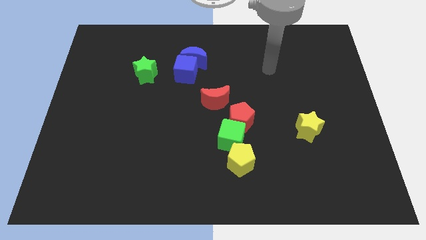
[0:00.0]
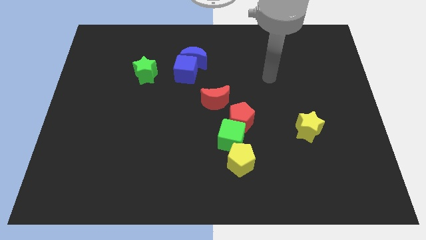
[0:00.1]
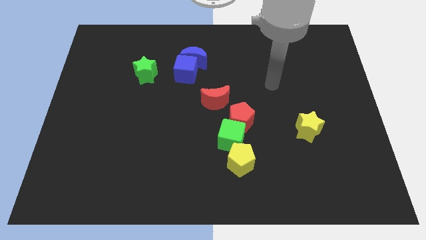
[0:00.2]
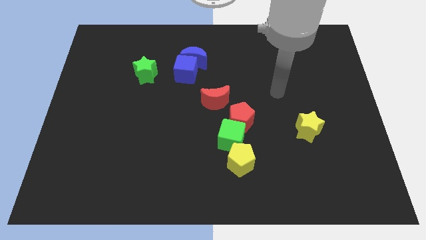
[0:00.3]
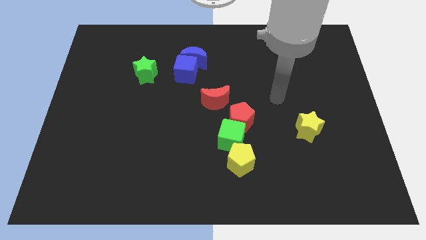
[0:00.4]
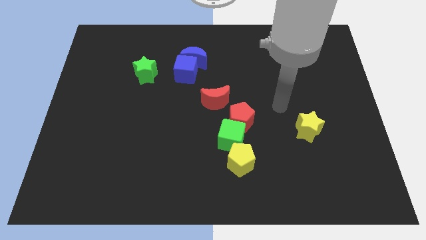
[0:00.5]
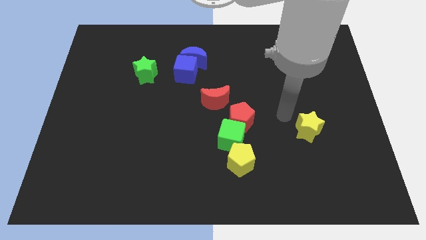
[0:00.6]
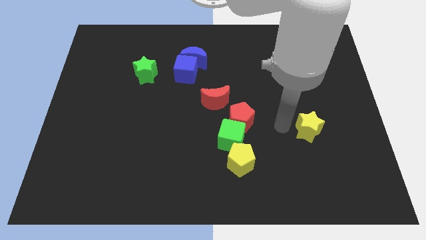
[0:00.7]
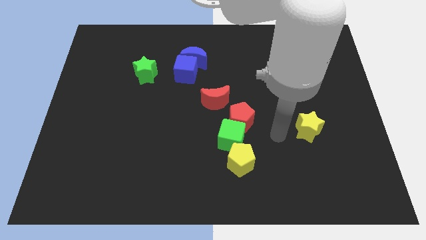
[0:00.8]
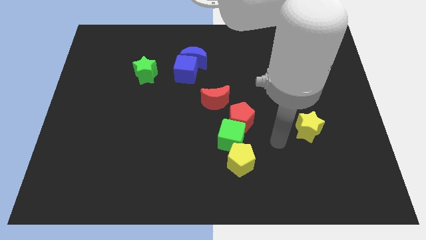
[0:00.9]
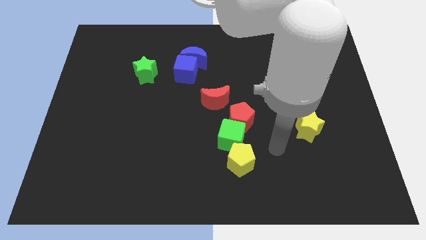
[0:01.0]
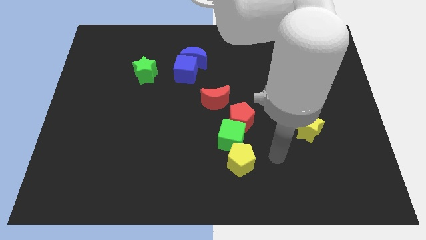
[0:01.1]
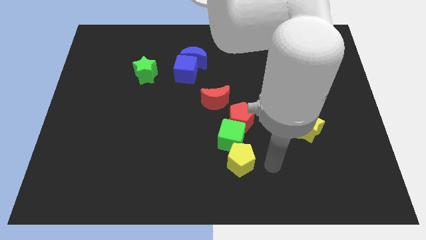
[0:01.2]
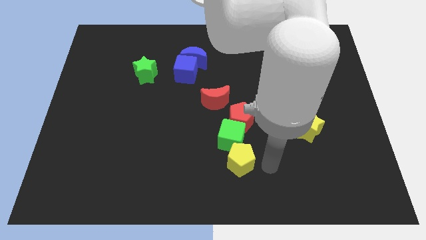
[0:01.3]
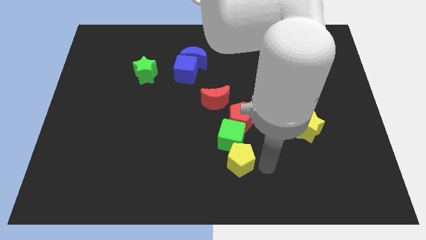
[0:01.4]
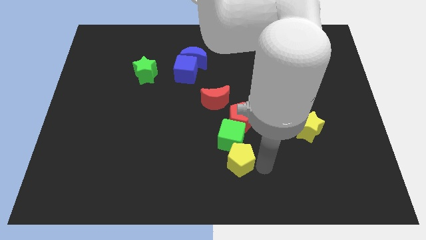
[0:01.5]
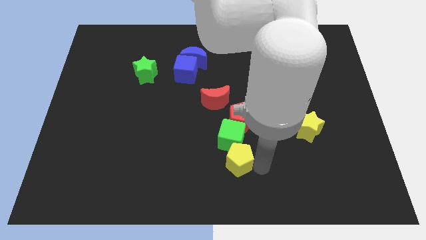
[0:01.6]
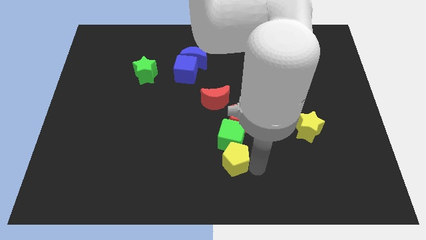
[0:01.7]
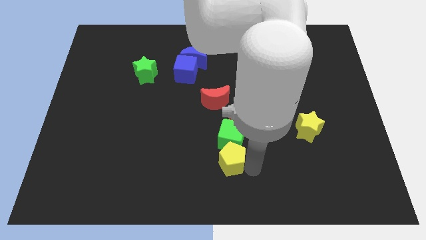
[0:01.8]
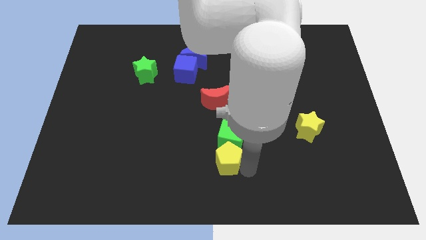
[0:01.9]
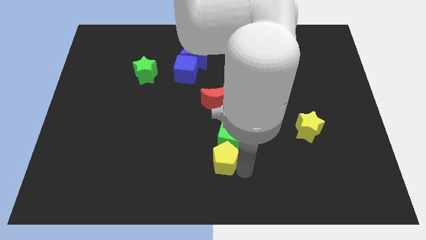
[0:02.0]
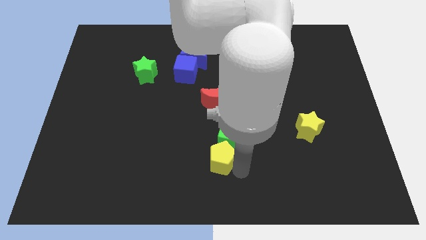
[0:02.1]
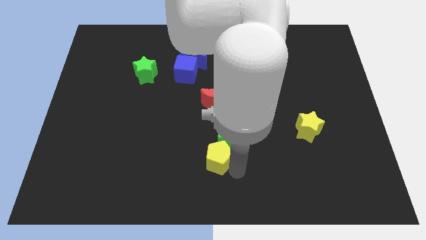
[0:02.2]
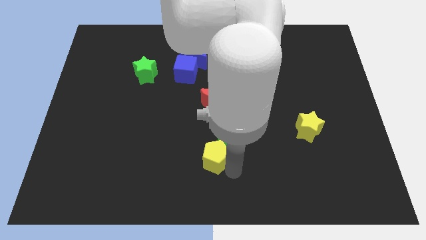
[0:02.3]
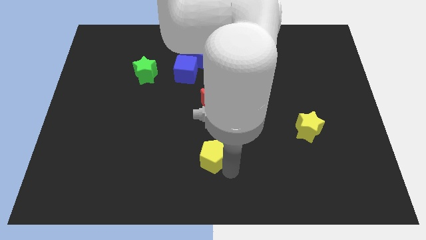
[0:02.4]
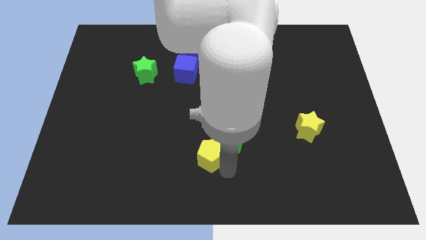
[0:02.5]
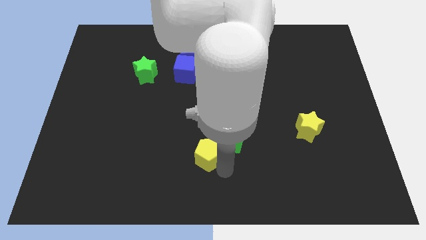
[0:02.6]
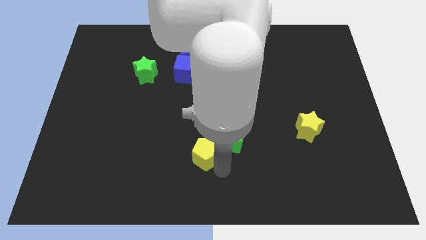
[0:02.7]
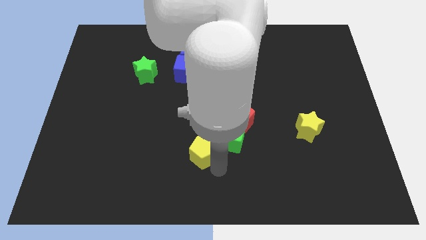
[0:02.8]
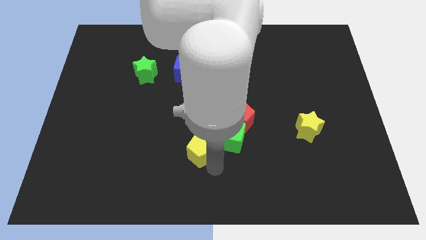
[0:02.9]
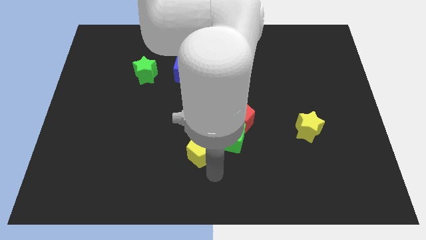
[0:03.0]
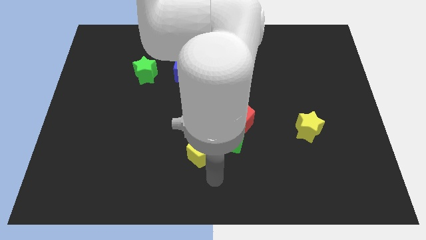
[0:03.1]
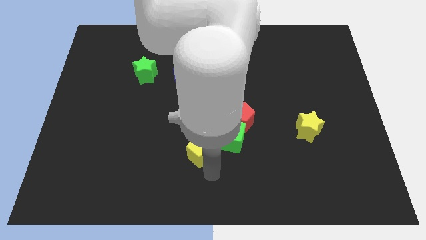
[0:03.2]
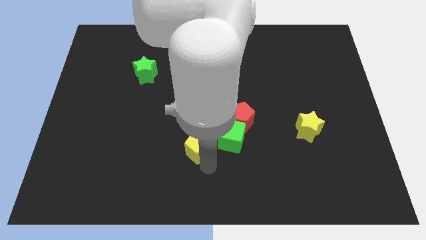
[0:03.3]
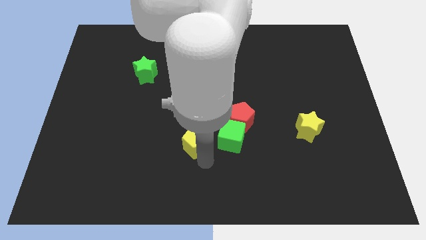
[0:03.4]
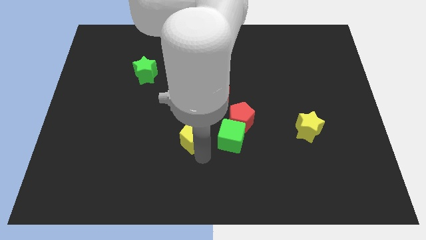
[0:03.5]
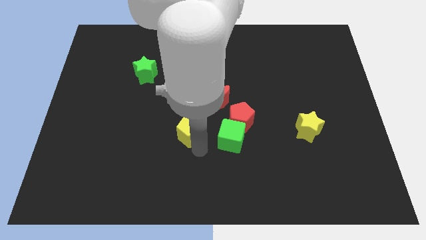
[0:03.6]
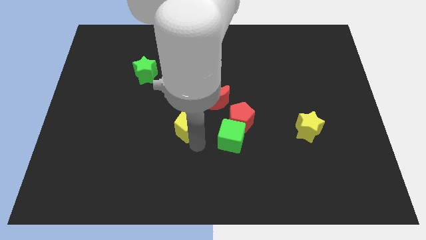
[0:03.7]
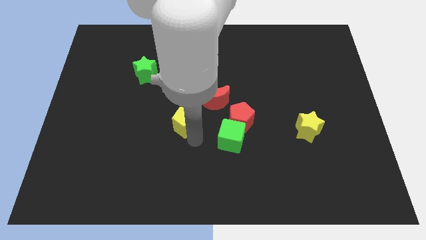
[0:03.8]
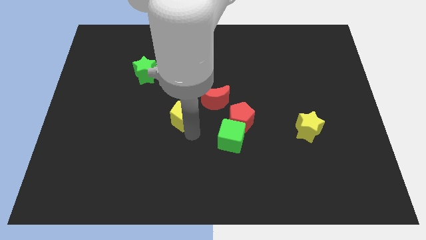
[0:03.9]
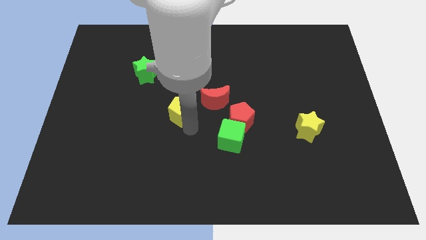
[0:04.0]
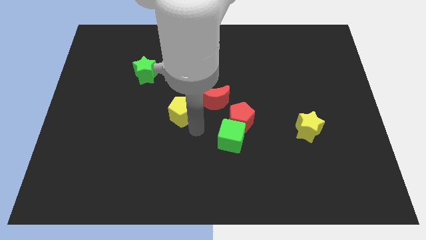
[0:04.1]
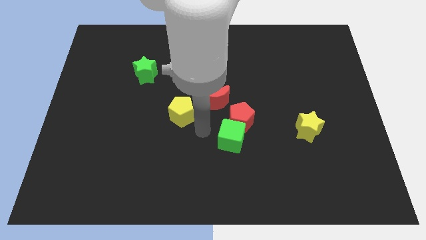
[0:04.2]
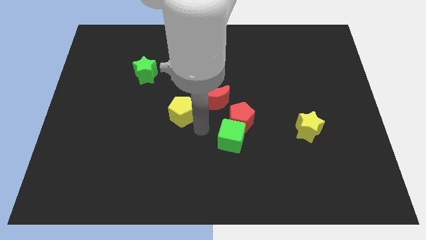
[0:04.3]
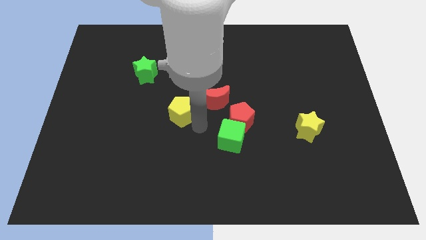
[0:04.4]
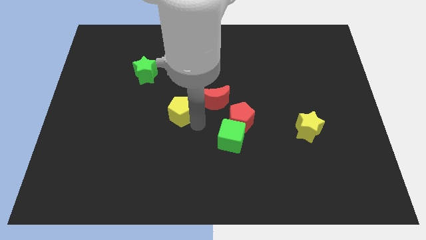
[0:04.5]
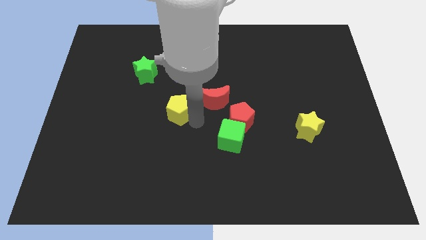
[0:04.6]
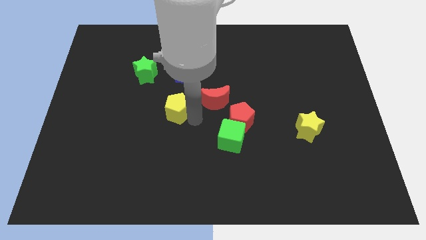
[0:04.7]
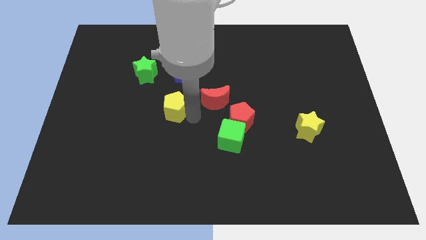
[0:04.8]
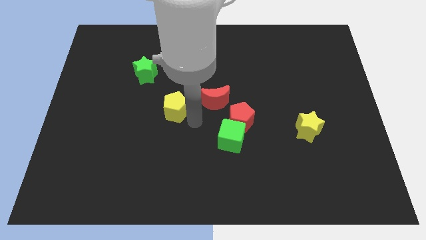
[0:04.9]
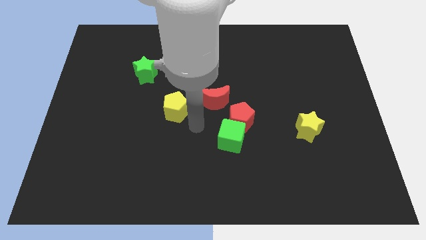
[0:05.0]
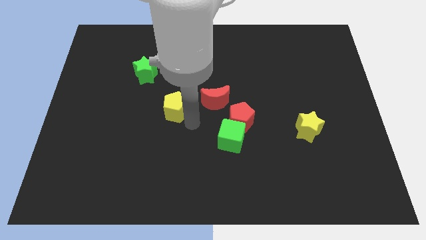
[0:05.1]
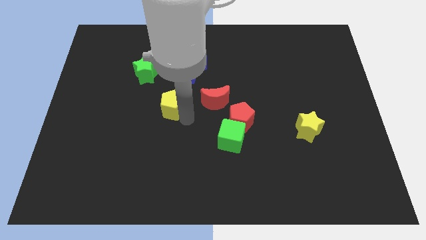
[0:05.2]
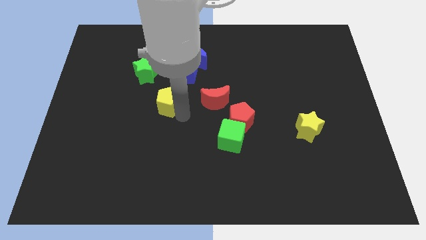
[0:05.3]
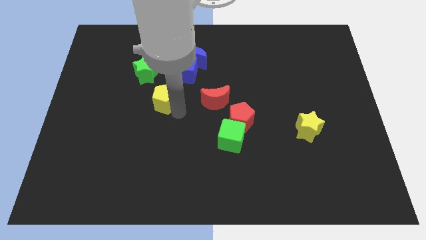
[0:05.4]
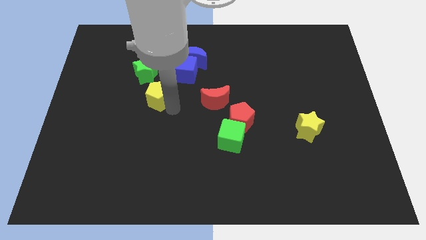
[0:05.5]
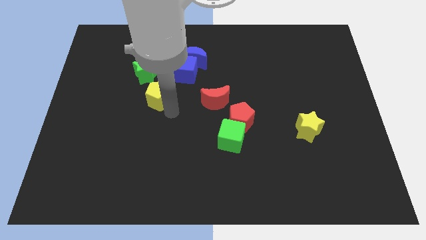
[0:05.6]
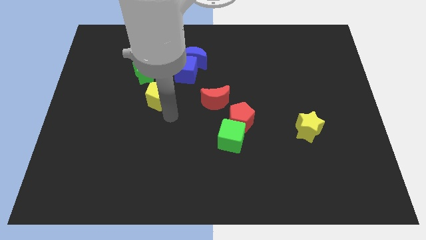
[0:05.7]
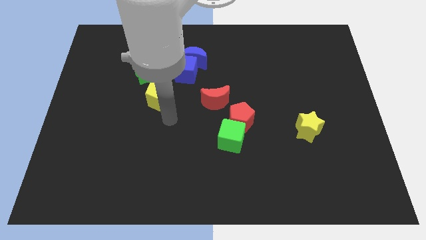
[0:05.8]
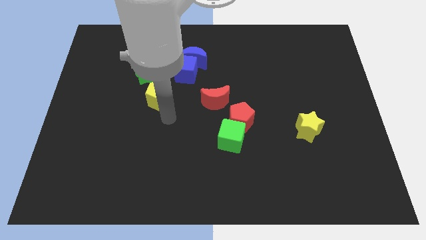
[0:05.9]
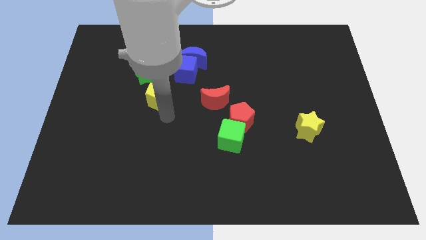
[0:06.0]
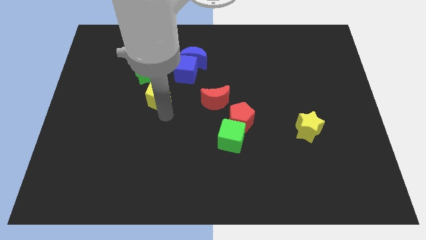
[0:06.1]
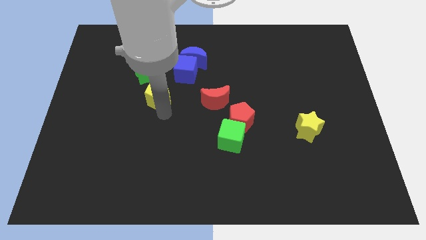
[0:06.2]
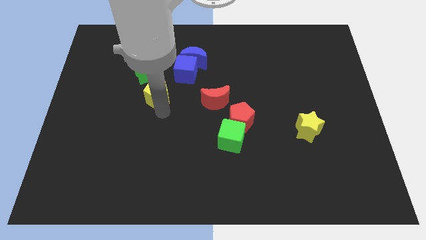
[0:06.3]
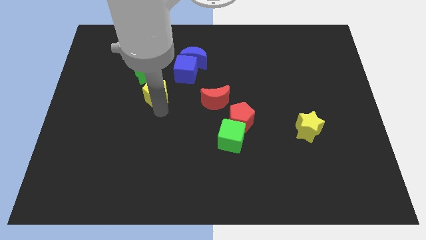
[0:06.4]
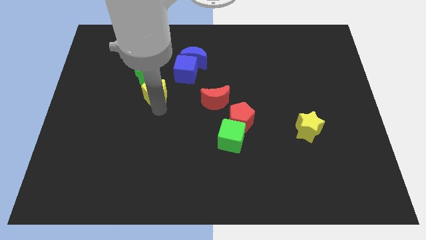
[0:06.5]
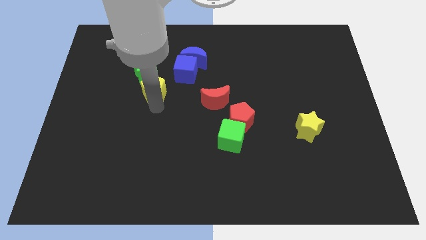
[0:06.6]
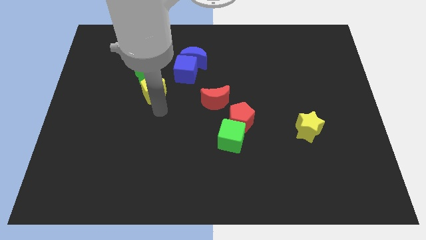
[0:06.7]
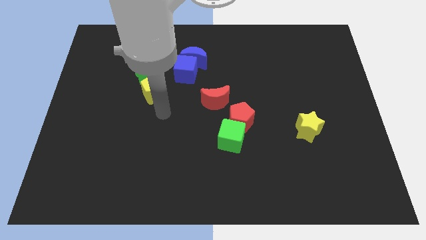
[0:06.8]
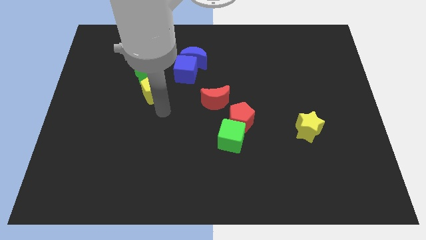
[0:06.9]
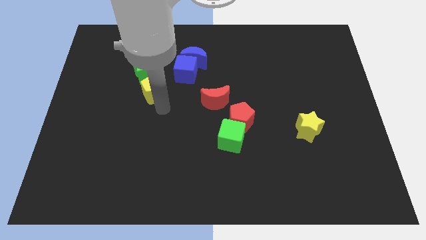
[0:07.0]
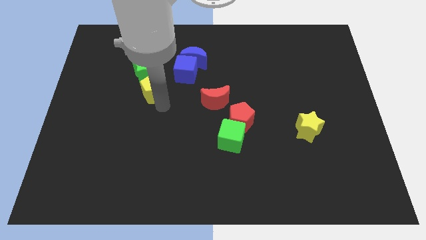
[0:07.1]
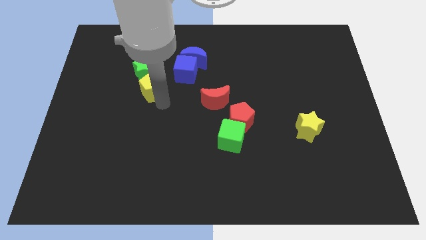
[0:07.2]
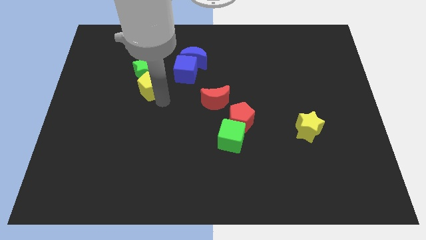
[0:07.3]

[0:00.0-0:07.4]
push the yellow pentagon to the green star
